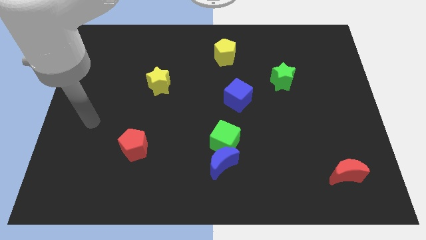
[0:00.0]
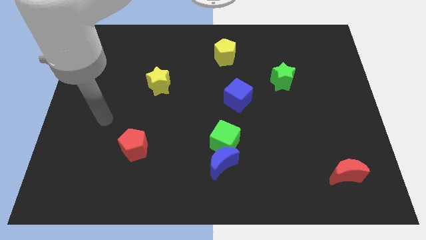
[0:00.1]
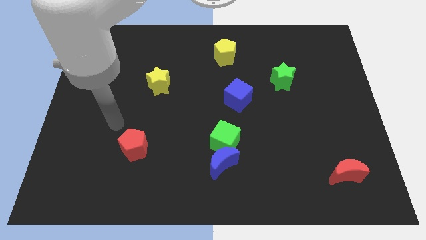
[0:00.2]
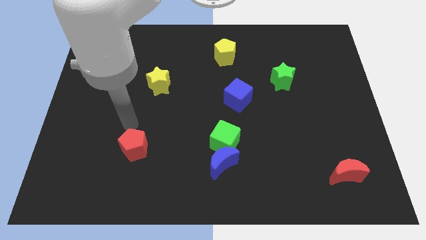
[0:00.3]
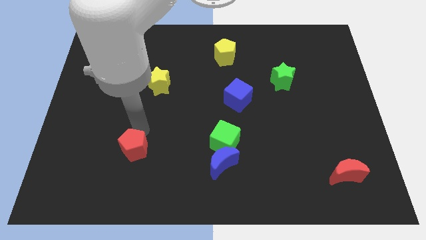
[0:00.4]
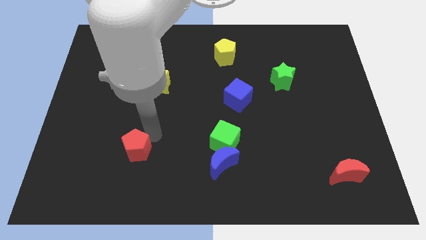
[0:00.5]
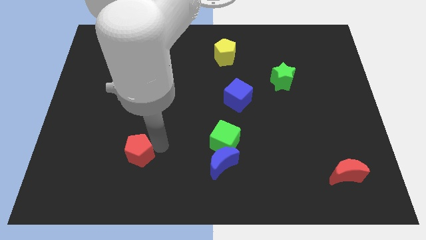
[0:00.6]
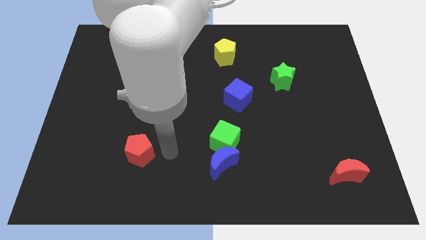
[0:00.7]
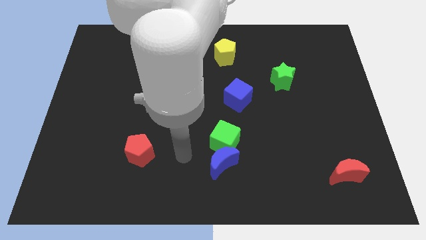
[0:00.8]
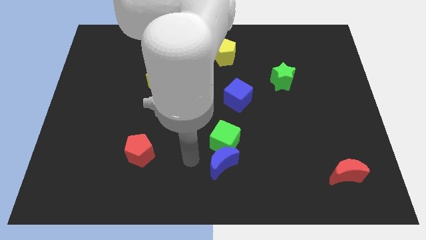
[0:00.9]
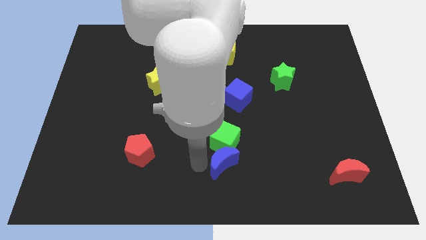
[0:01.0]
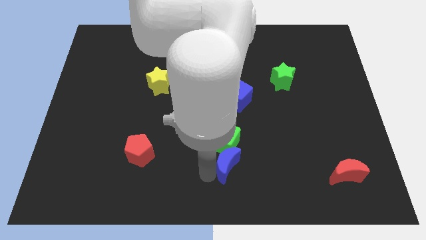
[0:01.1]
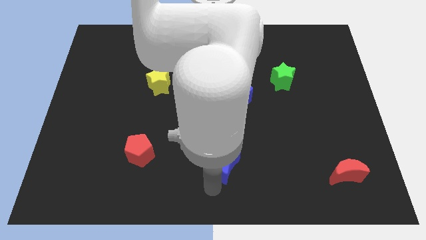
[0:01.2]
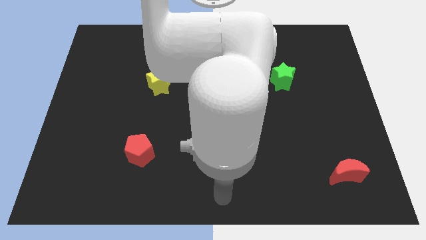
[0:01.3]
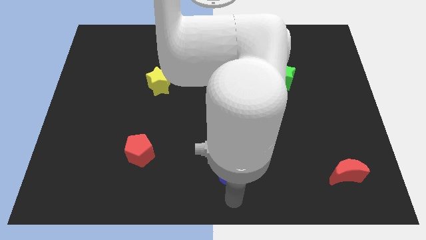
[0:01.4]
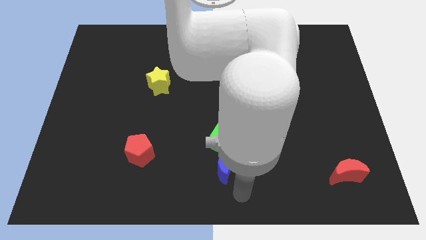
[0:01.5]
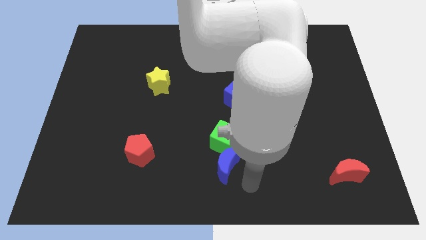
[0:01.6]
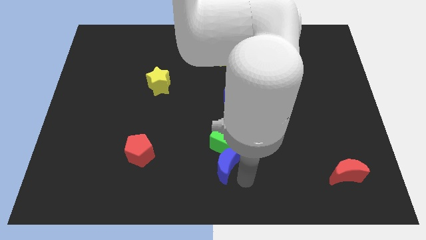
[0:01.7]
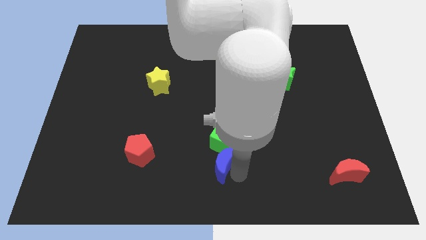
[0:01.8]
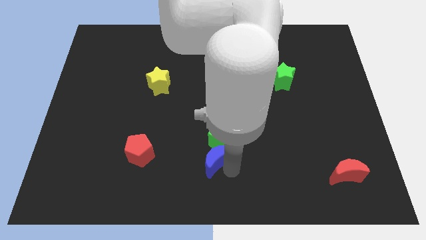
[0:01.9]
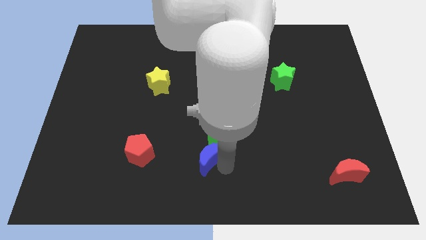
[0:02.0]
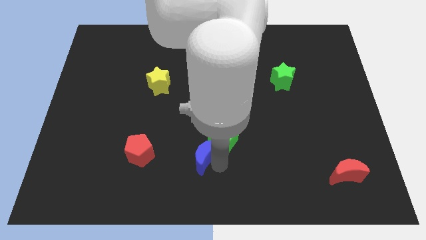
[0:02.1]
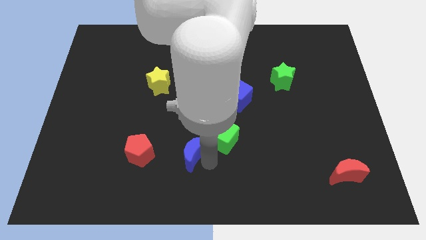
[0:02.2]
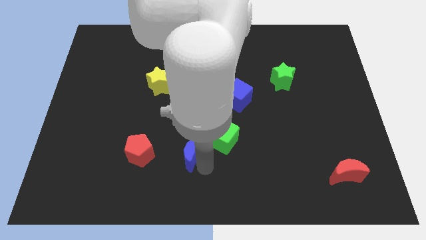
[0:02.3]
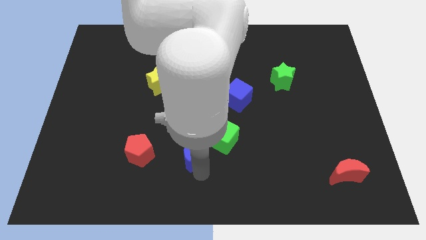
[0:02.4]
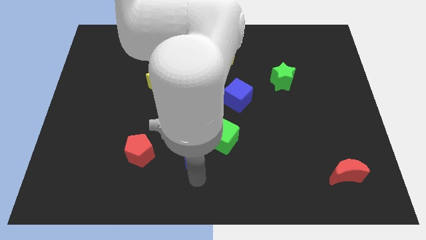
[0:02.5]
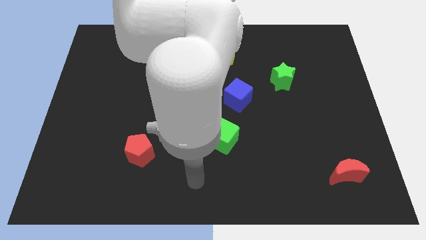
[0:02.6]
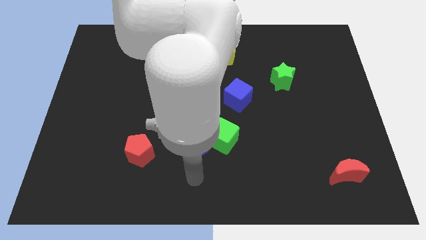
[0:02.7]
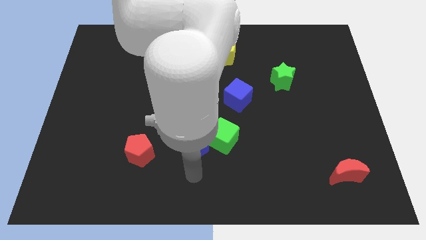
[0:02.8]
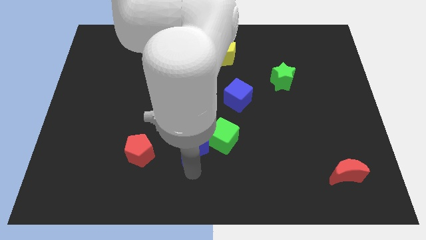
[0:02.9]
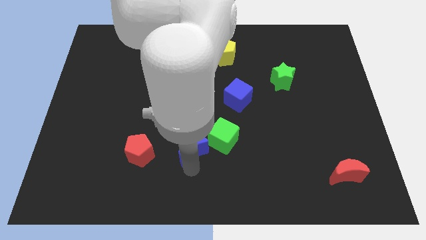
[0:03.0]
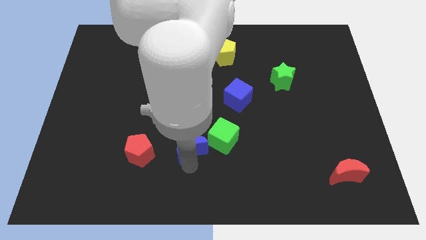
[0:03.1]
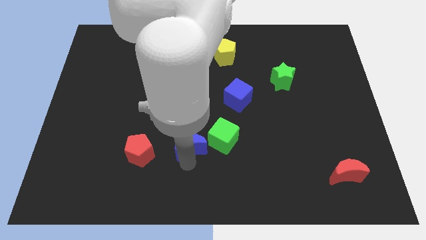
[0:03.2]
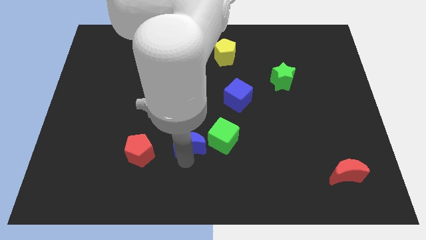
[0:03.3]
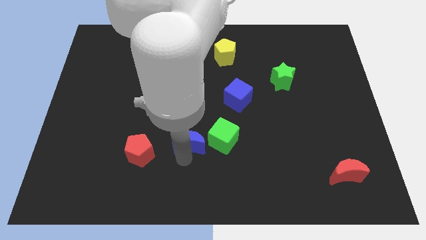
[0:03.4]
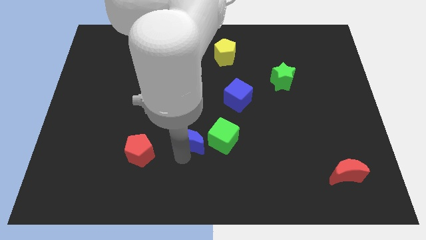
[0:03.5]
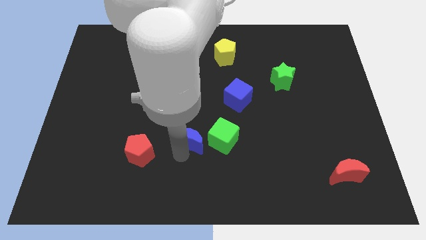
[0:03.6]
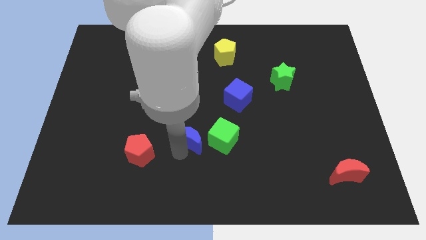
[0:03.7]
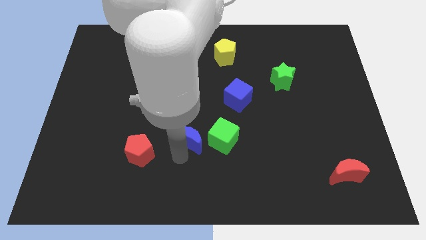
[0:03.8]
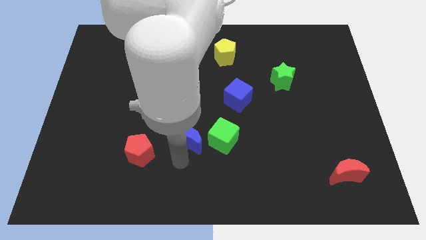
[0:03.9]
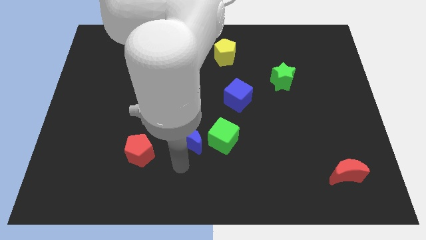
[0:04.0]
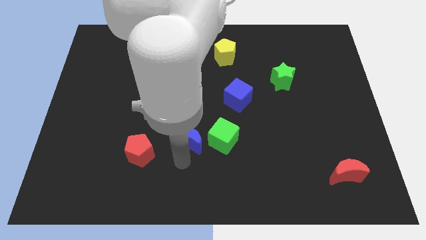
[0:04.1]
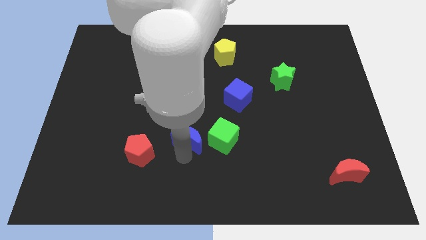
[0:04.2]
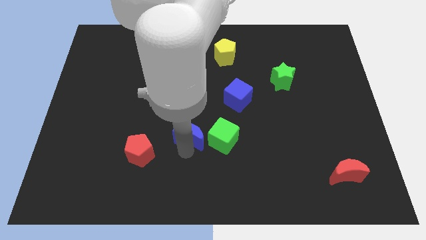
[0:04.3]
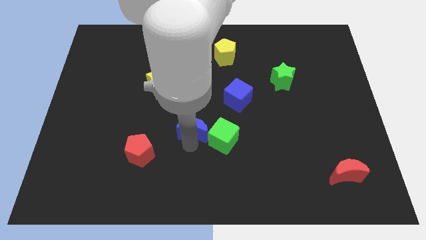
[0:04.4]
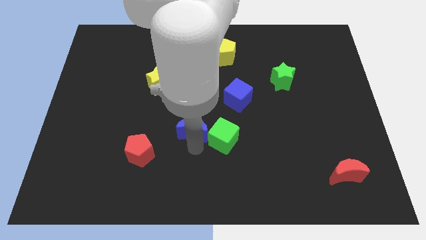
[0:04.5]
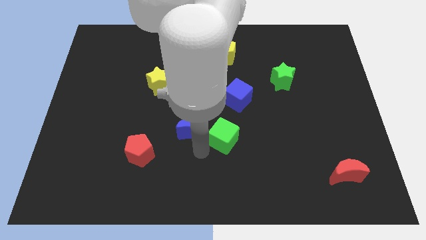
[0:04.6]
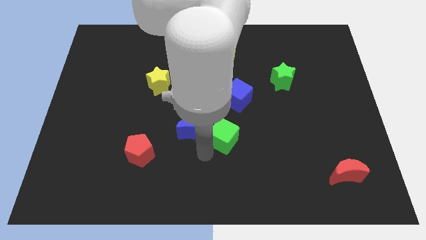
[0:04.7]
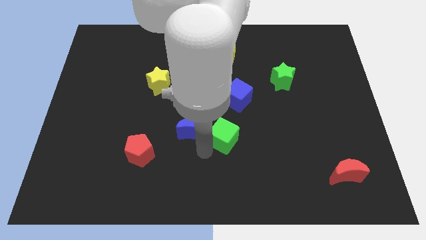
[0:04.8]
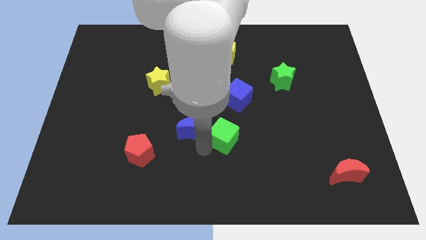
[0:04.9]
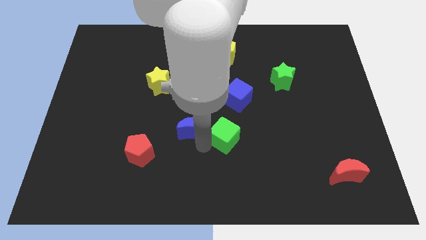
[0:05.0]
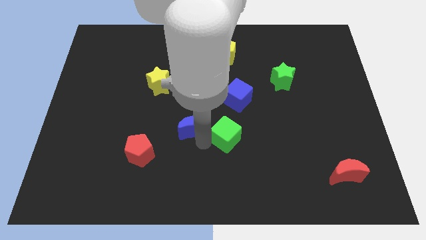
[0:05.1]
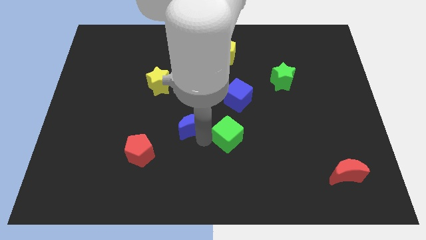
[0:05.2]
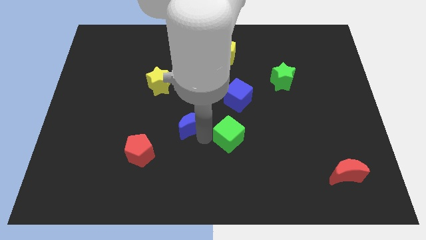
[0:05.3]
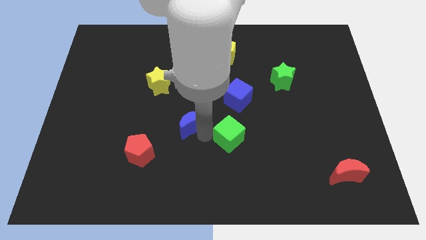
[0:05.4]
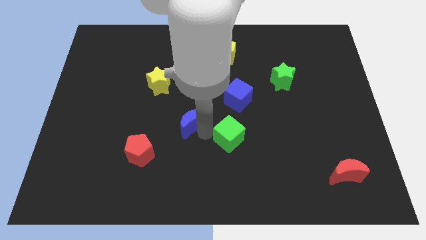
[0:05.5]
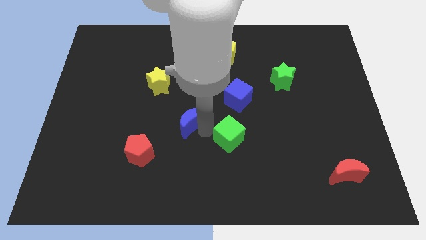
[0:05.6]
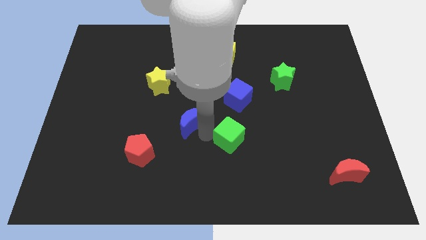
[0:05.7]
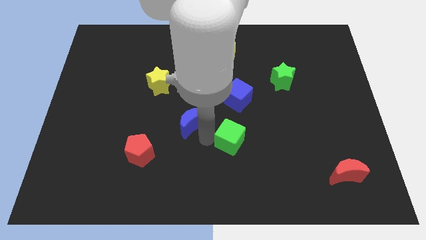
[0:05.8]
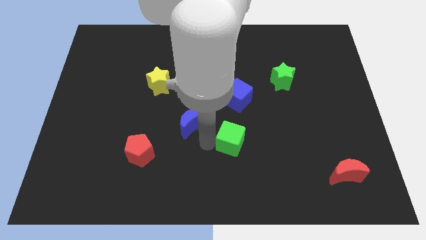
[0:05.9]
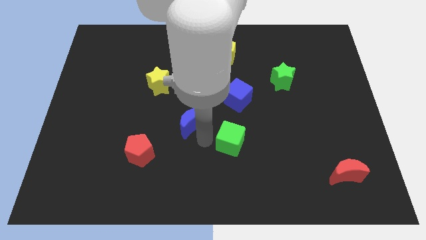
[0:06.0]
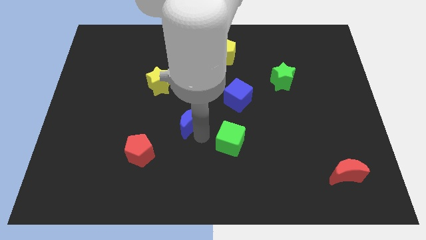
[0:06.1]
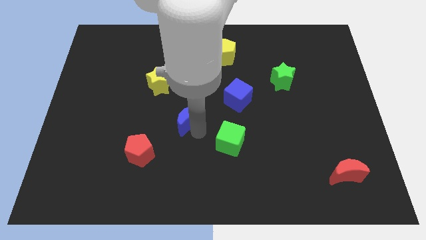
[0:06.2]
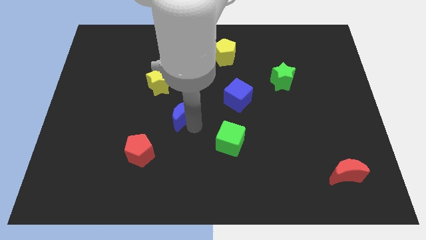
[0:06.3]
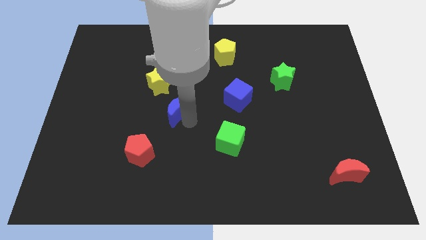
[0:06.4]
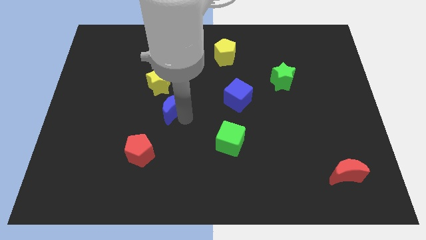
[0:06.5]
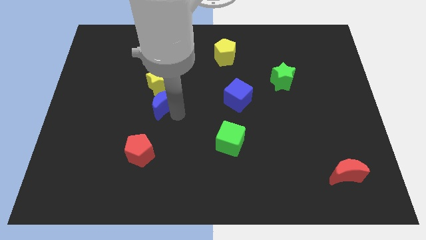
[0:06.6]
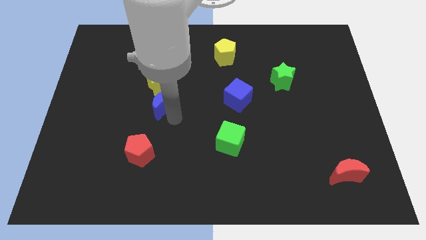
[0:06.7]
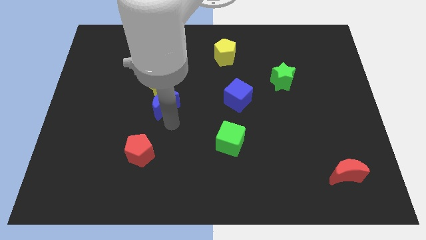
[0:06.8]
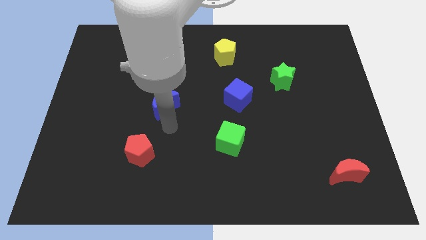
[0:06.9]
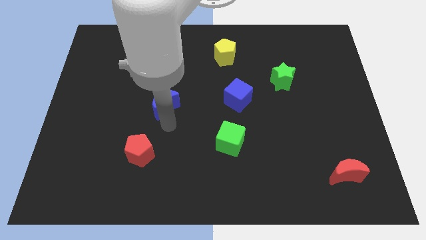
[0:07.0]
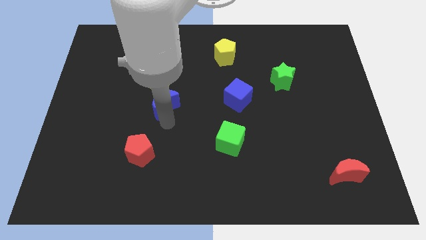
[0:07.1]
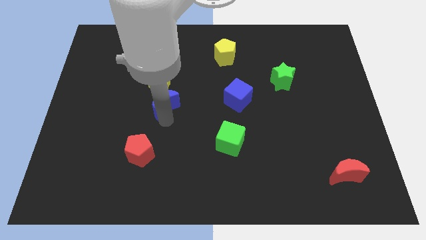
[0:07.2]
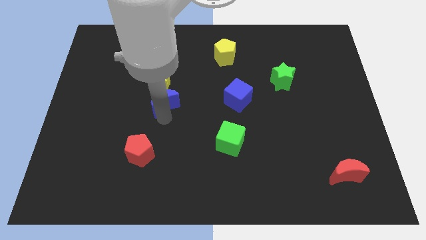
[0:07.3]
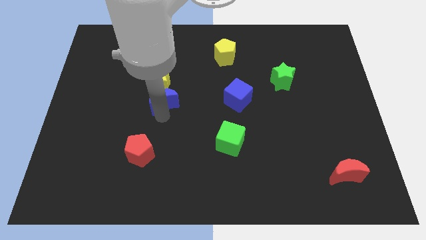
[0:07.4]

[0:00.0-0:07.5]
put the blue moon close to the yellow star
